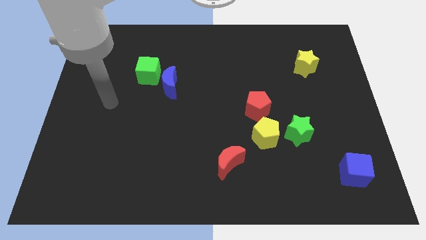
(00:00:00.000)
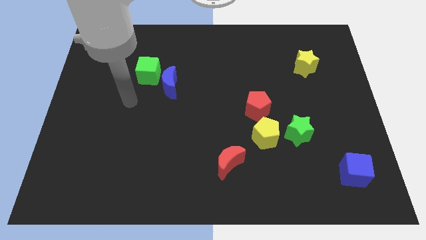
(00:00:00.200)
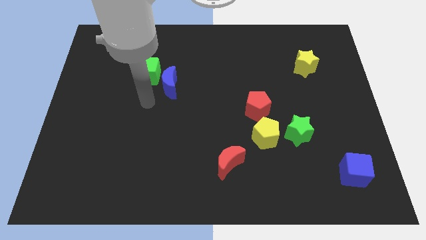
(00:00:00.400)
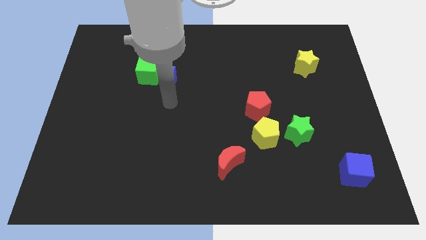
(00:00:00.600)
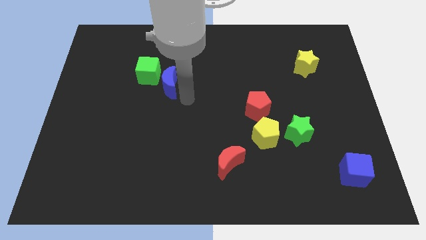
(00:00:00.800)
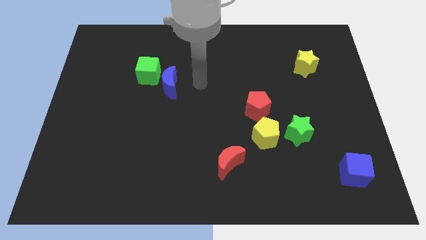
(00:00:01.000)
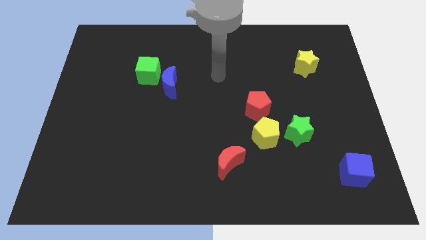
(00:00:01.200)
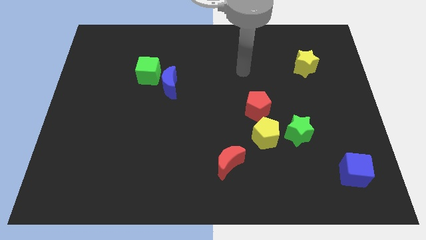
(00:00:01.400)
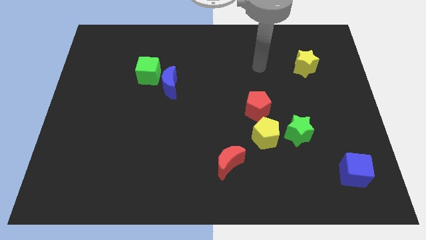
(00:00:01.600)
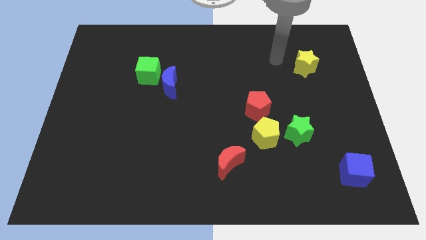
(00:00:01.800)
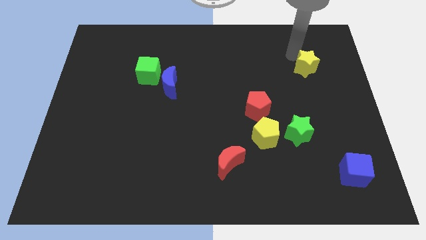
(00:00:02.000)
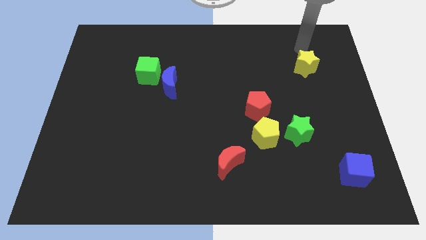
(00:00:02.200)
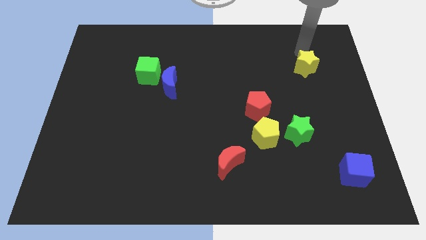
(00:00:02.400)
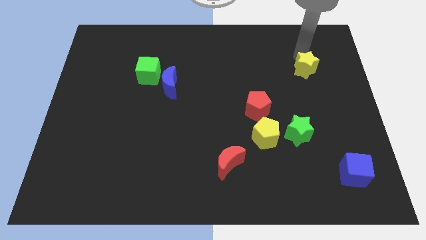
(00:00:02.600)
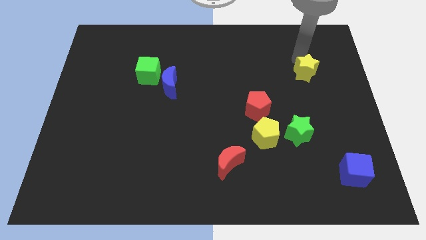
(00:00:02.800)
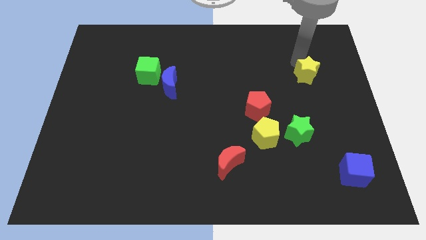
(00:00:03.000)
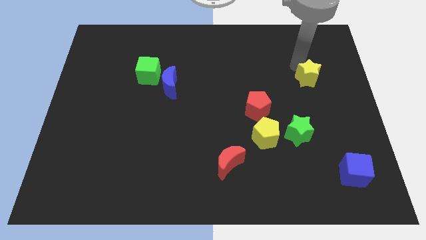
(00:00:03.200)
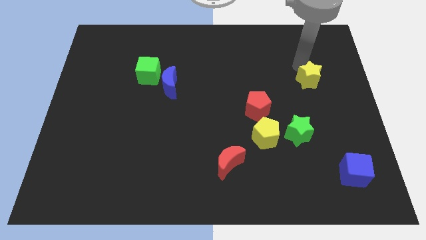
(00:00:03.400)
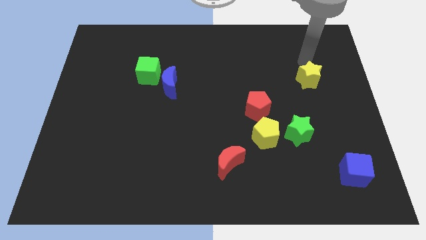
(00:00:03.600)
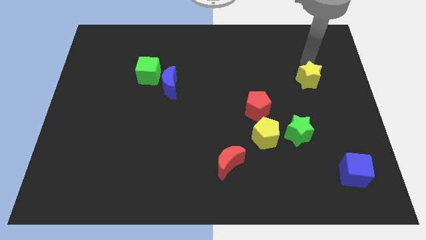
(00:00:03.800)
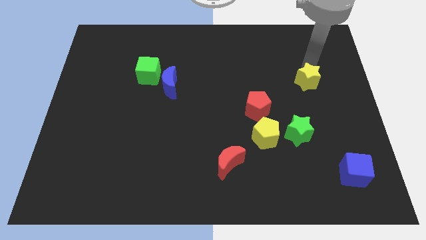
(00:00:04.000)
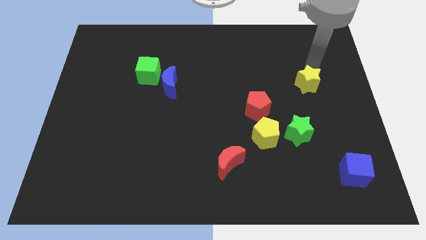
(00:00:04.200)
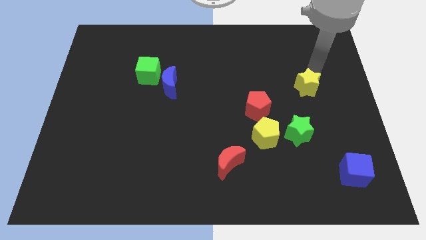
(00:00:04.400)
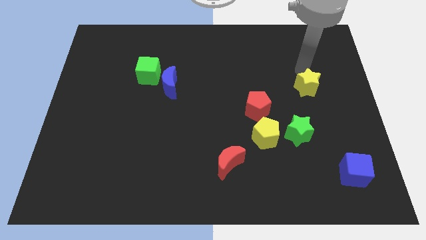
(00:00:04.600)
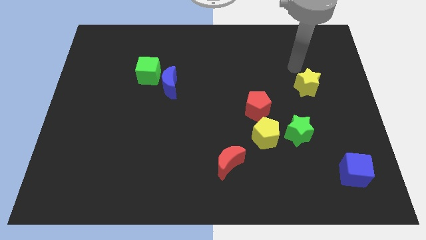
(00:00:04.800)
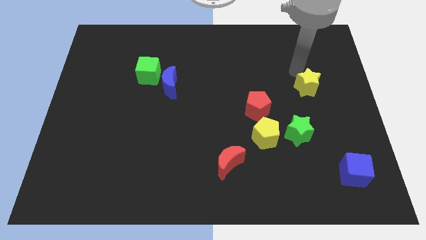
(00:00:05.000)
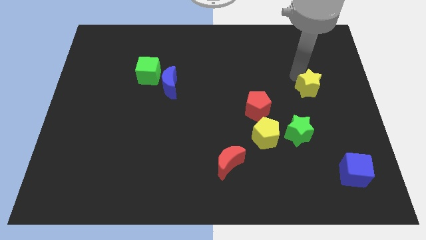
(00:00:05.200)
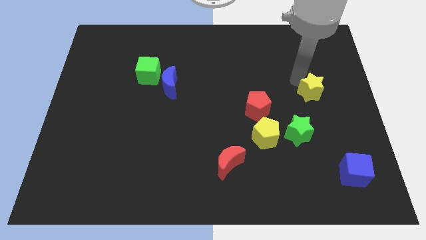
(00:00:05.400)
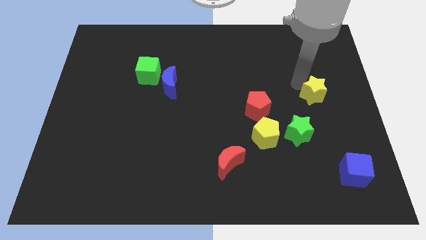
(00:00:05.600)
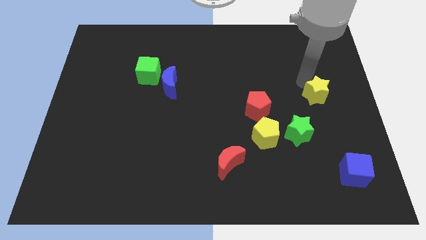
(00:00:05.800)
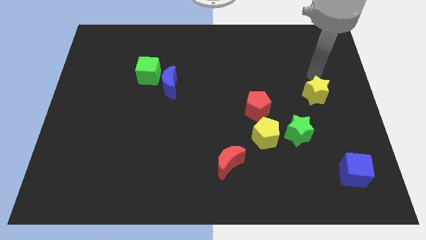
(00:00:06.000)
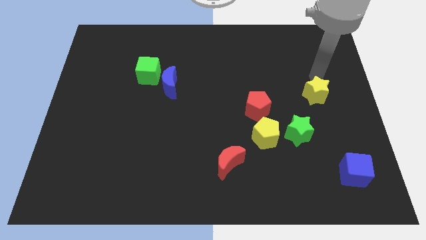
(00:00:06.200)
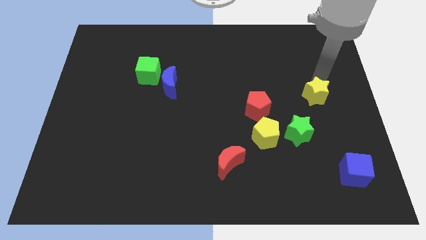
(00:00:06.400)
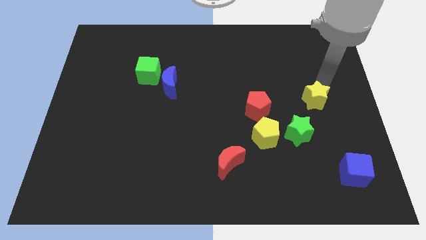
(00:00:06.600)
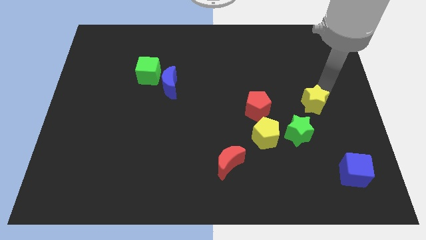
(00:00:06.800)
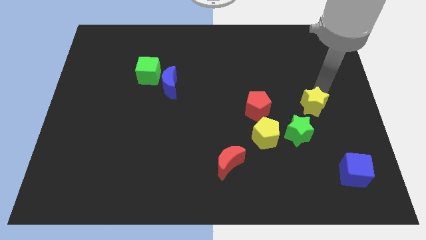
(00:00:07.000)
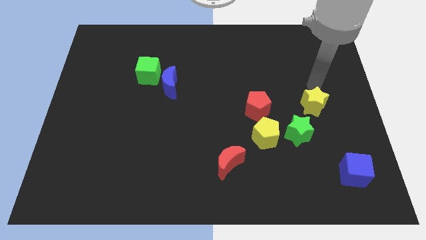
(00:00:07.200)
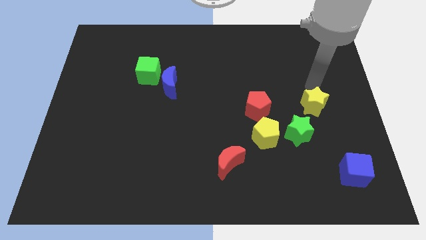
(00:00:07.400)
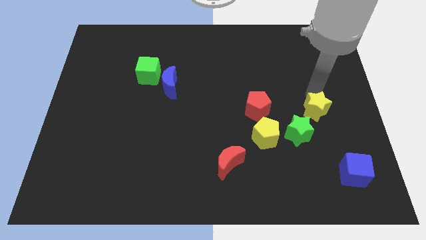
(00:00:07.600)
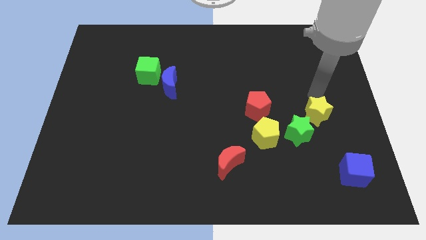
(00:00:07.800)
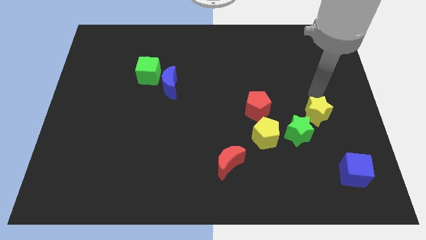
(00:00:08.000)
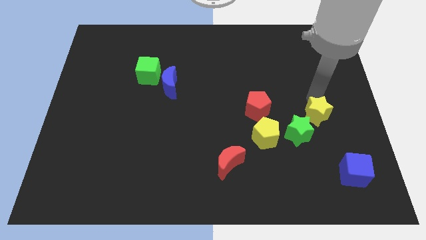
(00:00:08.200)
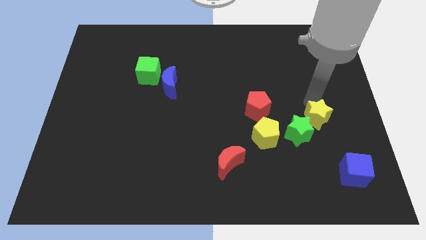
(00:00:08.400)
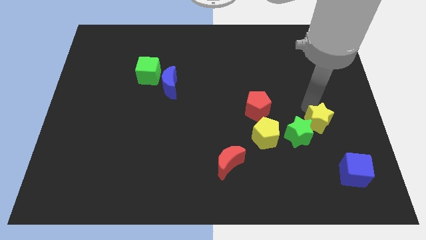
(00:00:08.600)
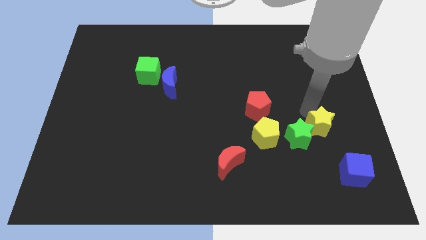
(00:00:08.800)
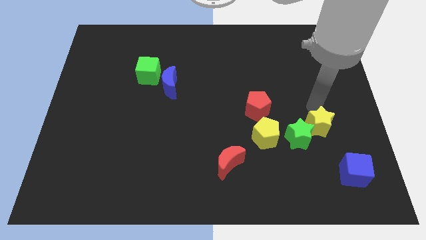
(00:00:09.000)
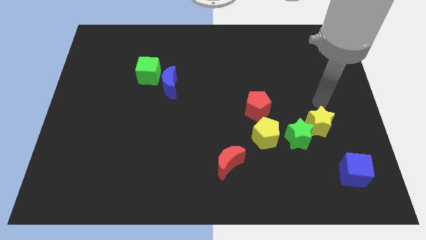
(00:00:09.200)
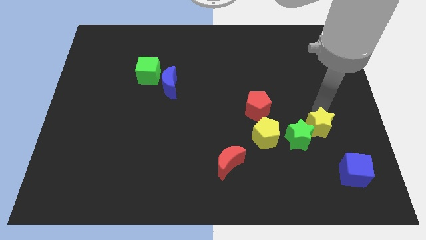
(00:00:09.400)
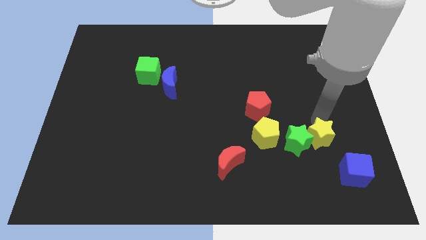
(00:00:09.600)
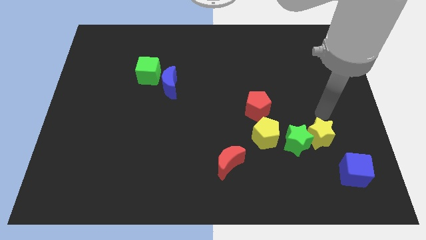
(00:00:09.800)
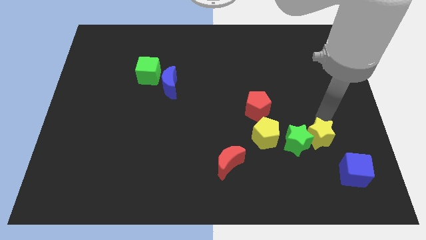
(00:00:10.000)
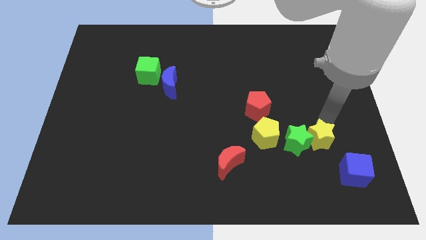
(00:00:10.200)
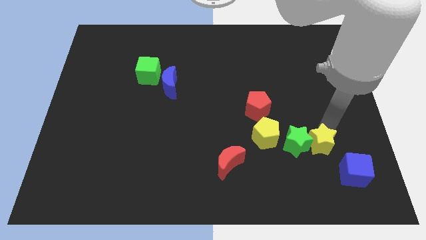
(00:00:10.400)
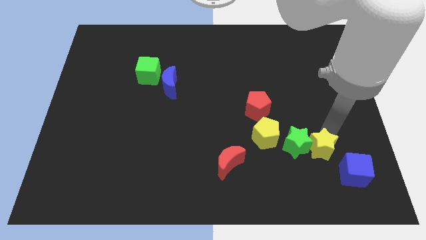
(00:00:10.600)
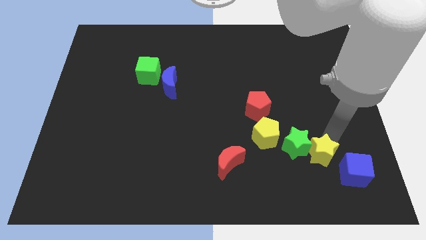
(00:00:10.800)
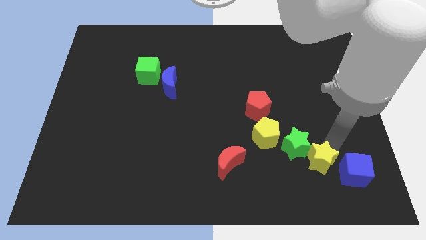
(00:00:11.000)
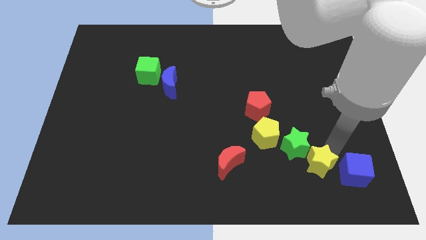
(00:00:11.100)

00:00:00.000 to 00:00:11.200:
put the yellow star to the bottom side of the green star
